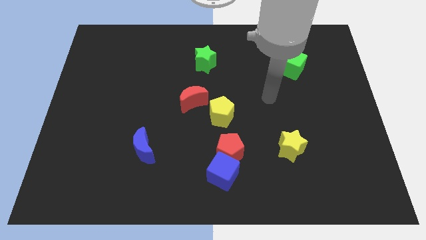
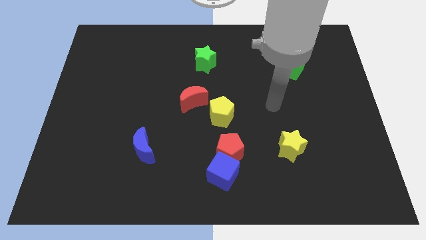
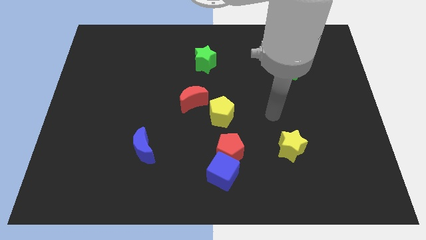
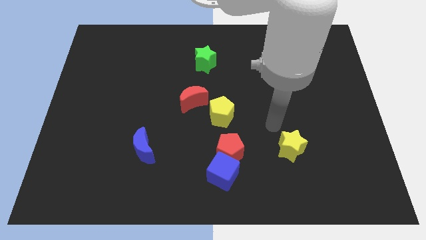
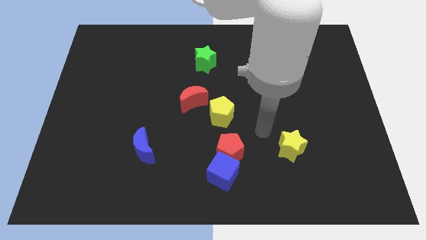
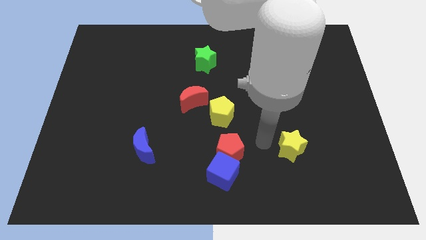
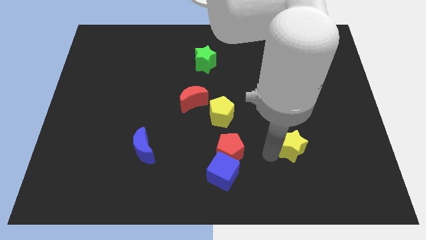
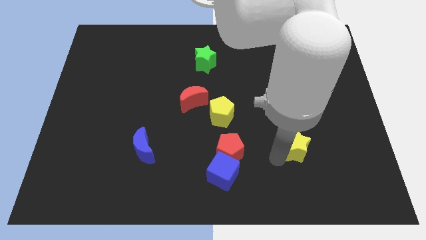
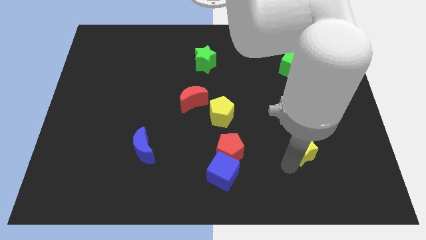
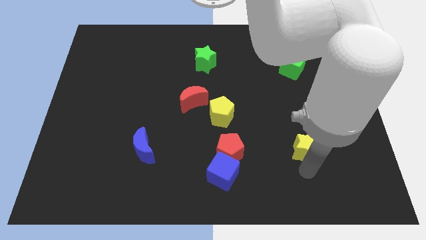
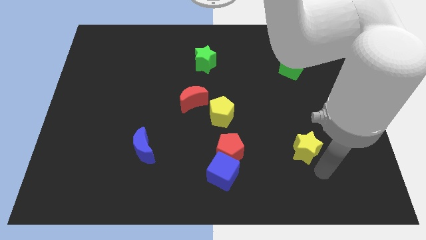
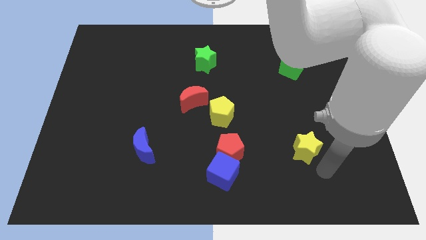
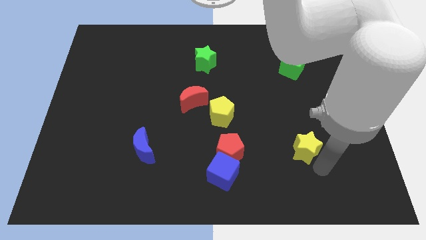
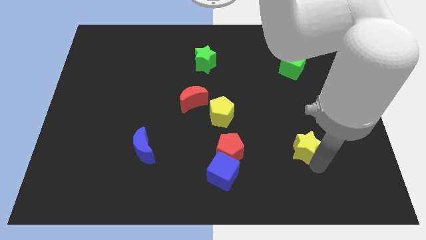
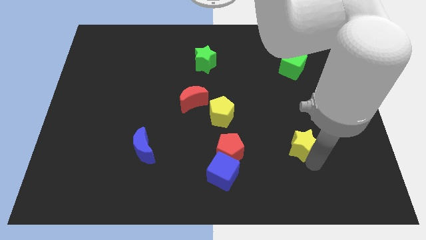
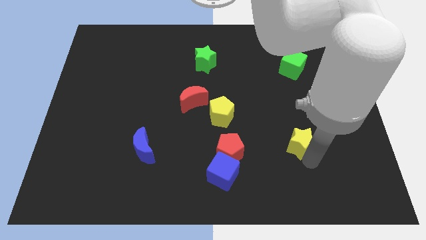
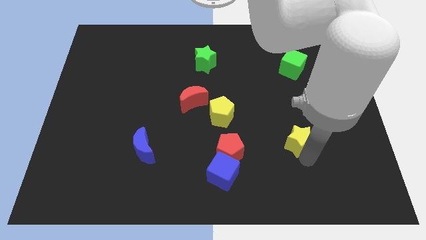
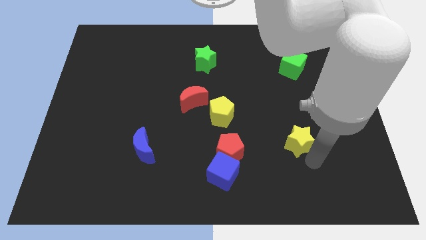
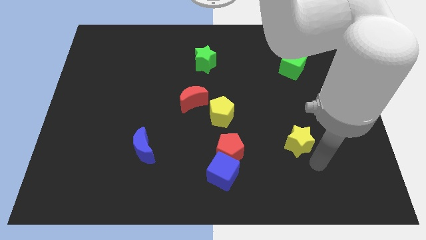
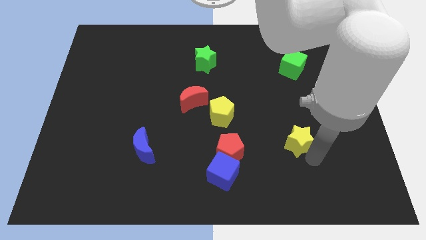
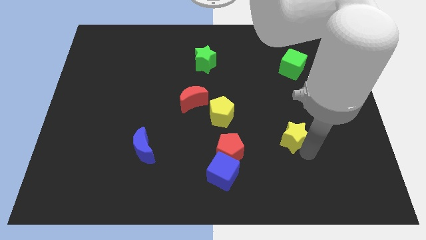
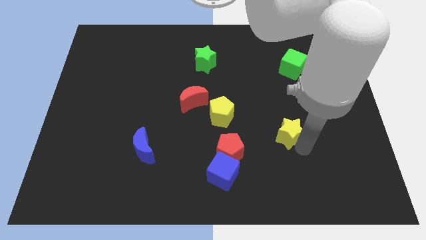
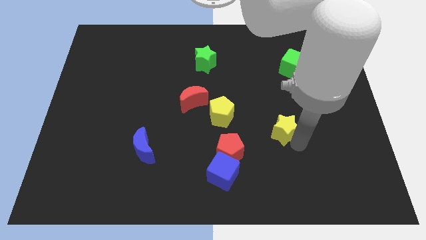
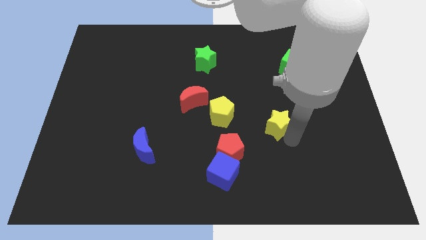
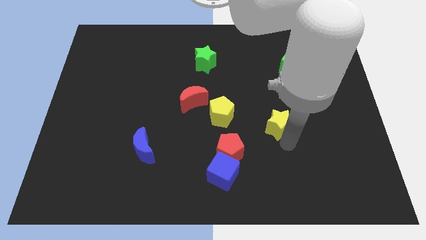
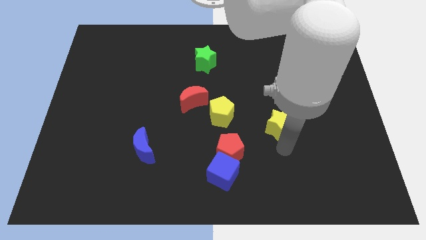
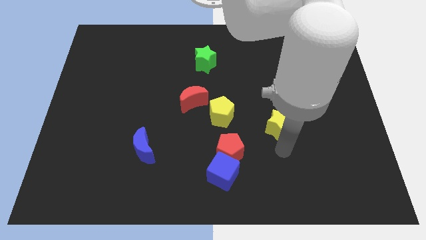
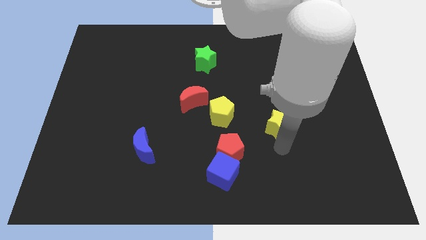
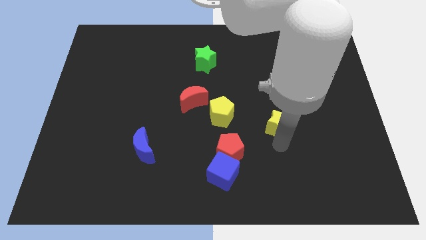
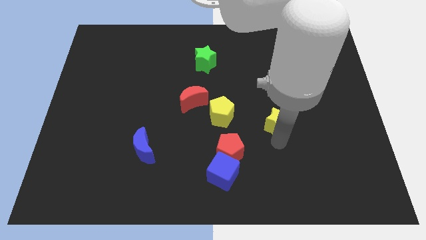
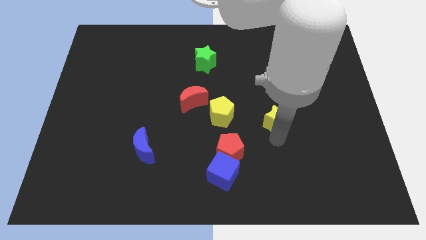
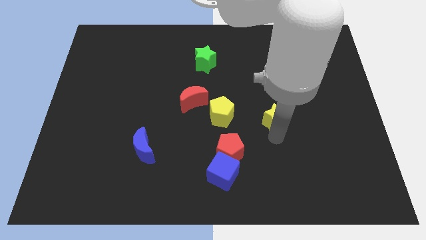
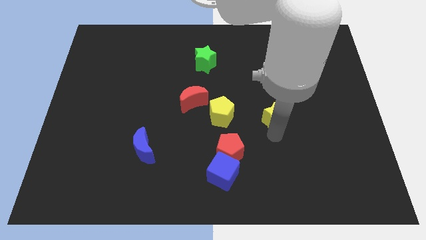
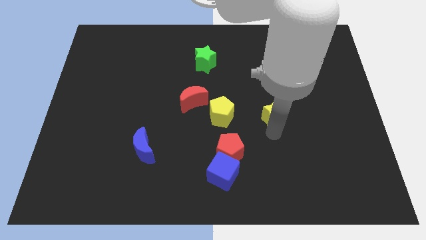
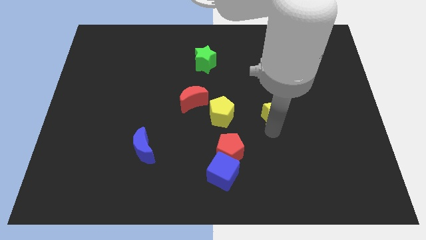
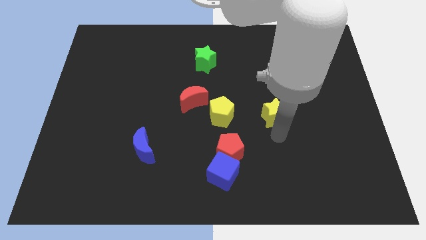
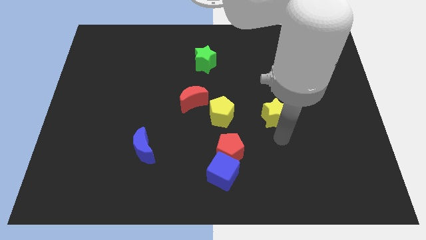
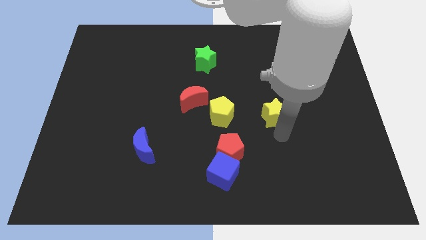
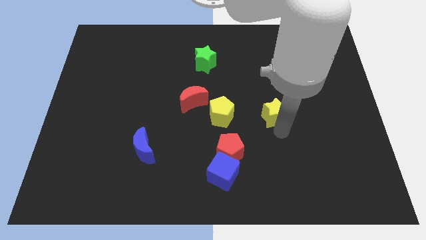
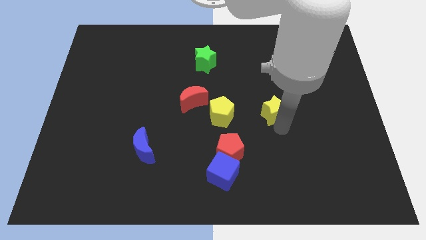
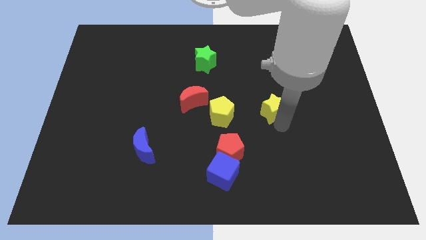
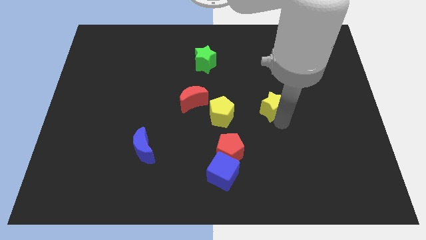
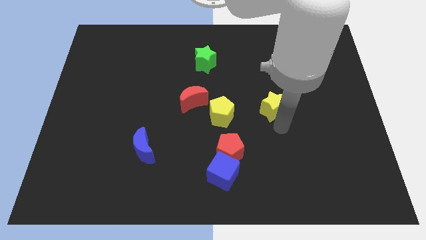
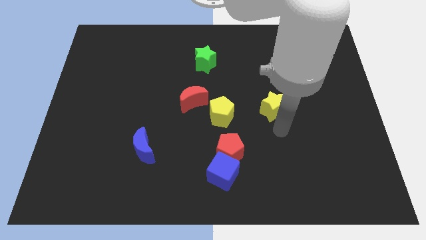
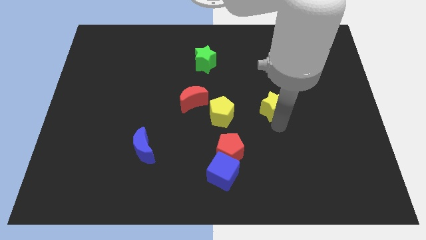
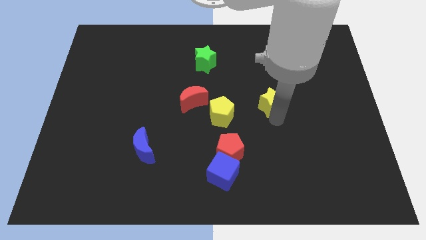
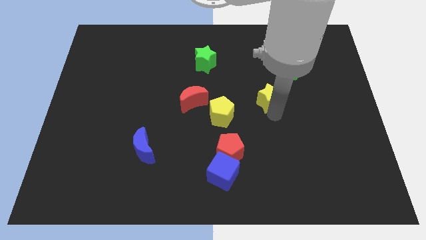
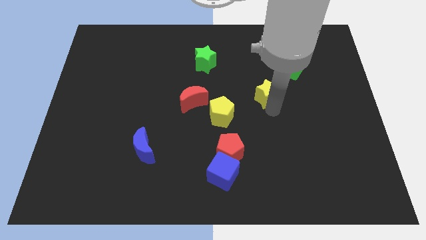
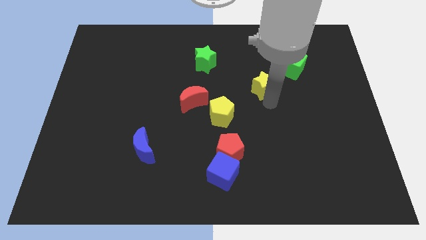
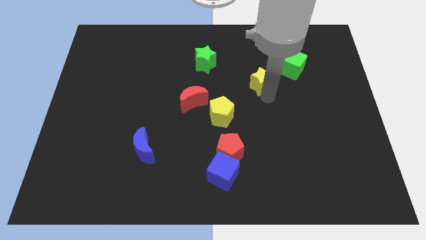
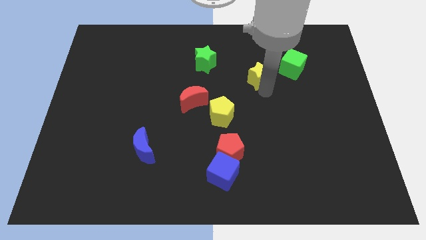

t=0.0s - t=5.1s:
move the yellow star left of the green cube
